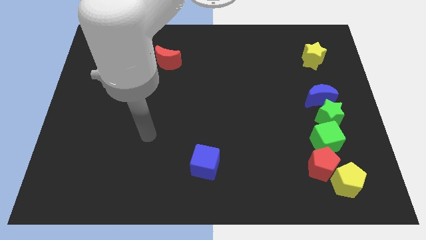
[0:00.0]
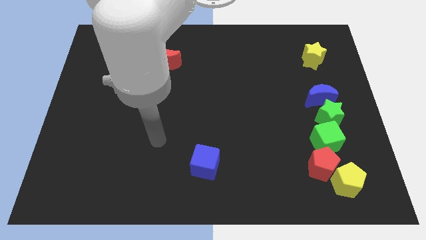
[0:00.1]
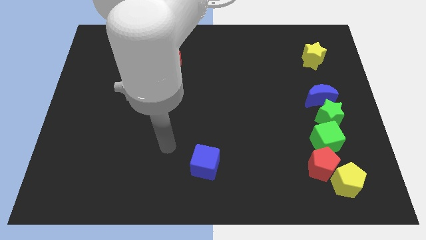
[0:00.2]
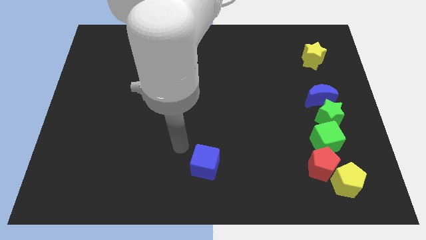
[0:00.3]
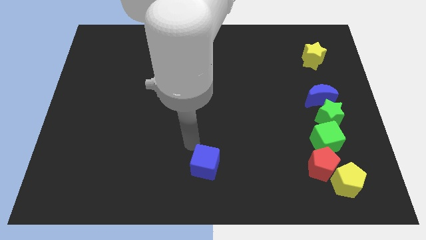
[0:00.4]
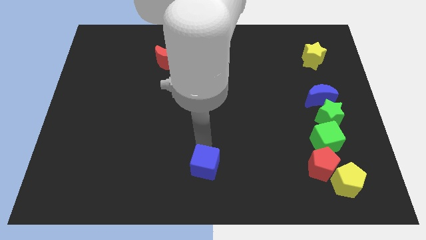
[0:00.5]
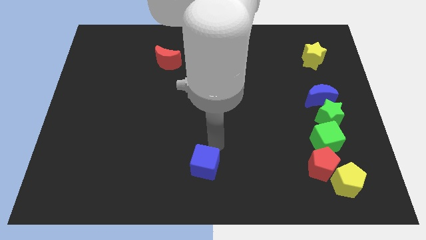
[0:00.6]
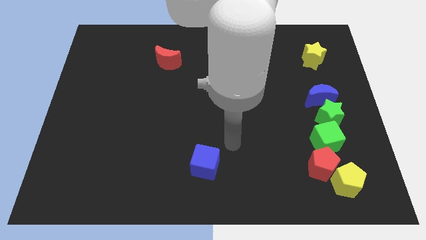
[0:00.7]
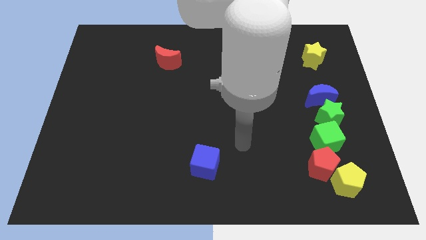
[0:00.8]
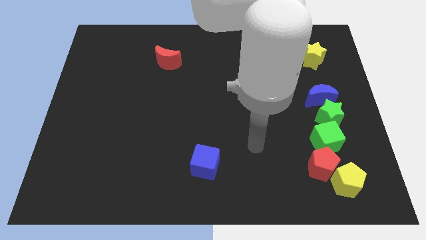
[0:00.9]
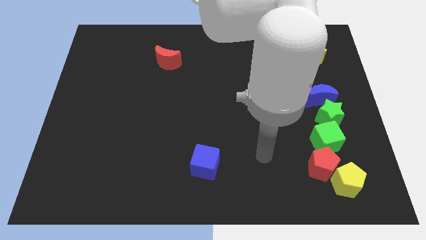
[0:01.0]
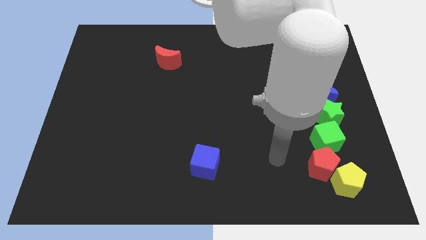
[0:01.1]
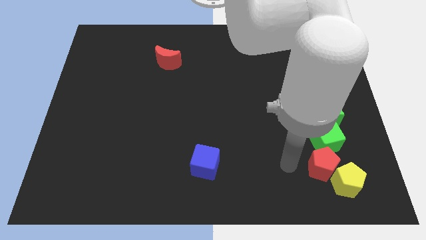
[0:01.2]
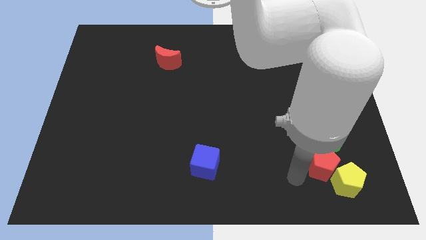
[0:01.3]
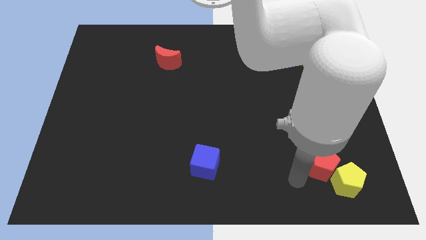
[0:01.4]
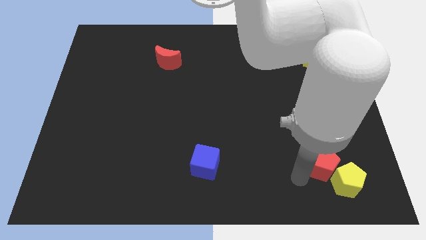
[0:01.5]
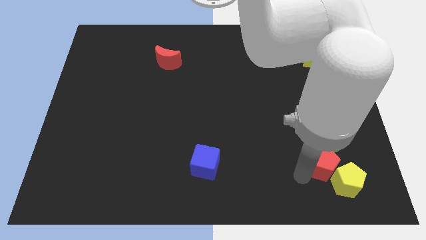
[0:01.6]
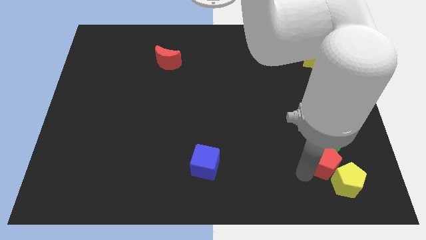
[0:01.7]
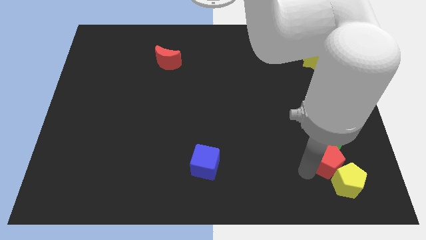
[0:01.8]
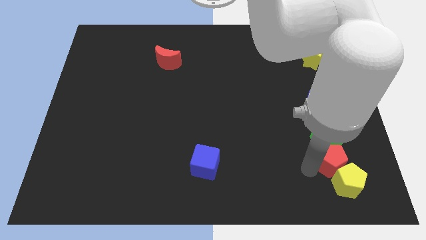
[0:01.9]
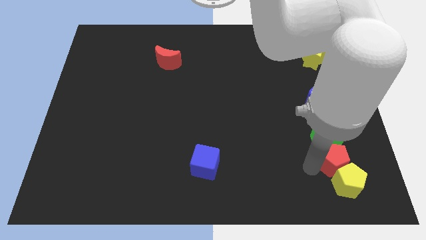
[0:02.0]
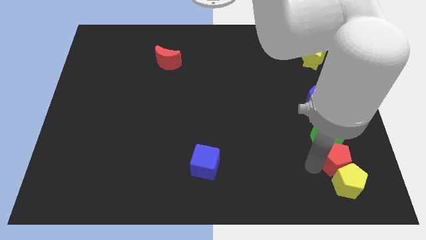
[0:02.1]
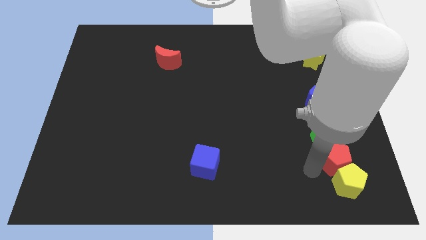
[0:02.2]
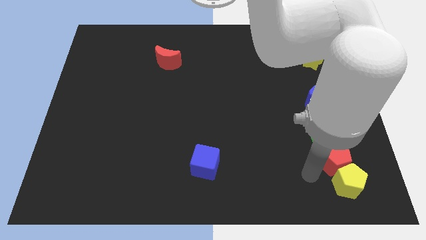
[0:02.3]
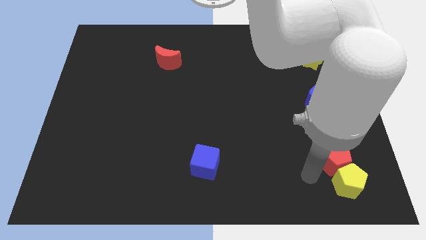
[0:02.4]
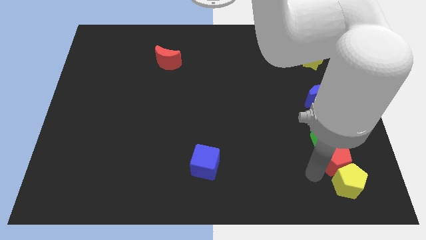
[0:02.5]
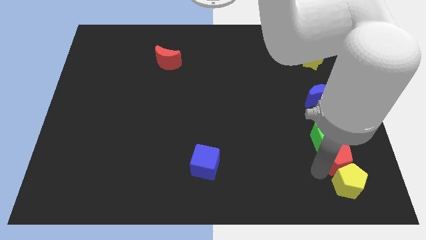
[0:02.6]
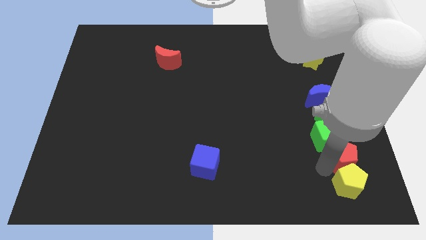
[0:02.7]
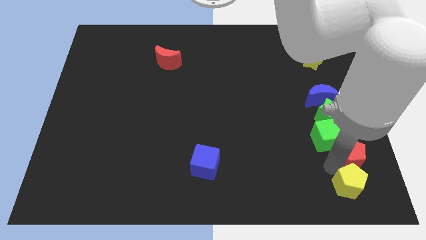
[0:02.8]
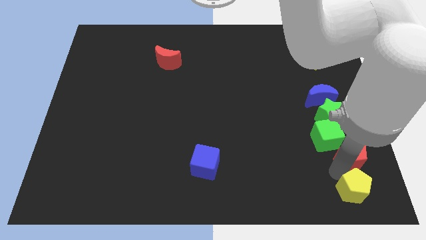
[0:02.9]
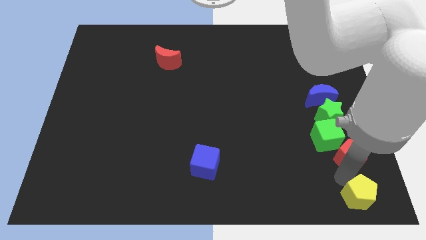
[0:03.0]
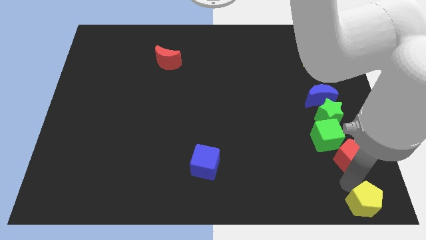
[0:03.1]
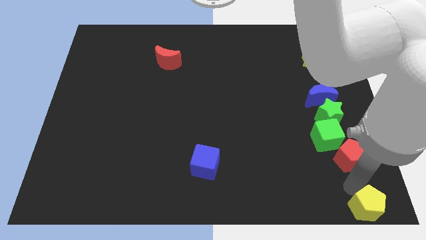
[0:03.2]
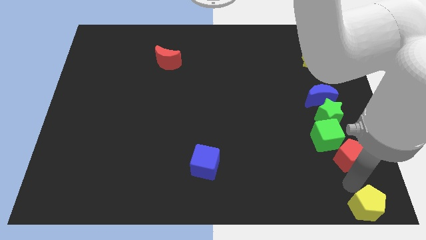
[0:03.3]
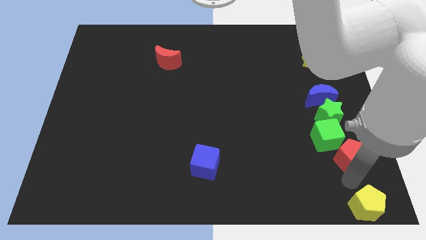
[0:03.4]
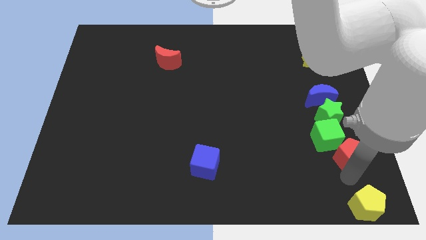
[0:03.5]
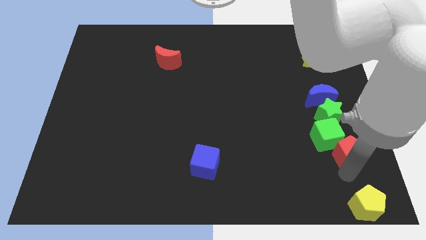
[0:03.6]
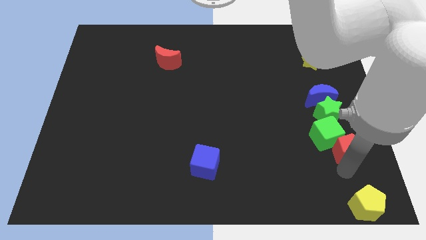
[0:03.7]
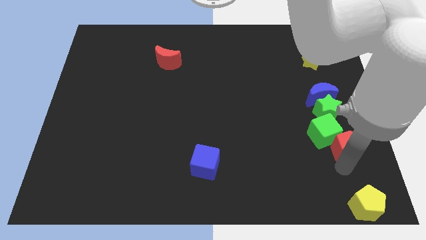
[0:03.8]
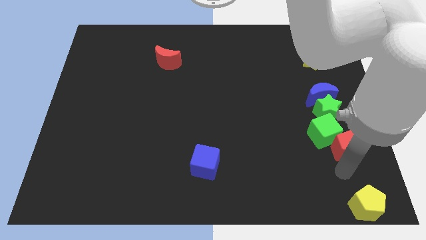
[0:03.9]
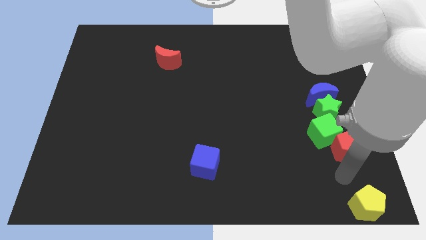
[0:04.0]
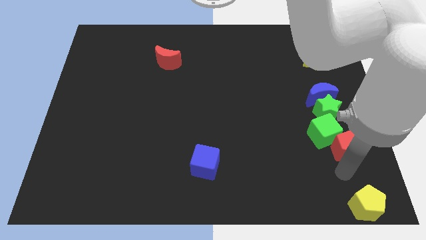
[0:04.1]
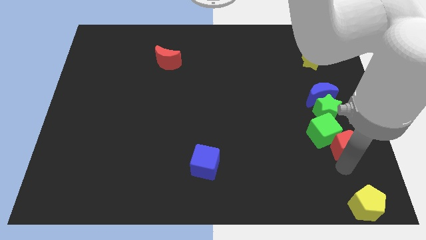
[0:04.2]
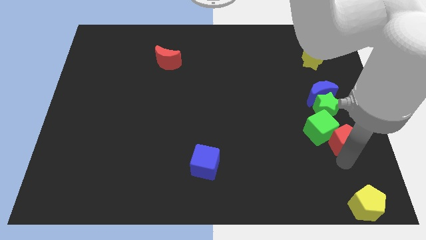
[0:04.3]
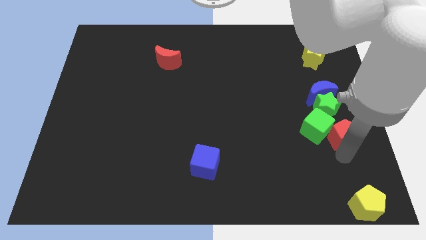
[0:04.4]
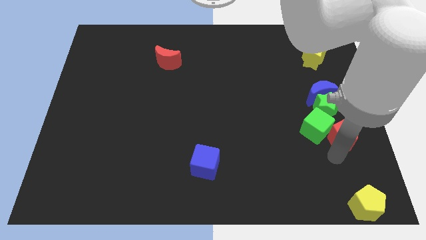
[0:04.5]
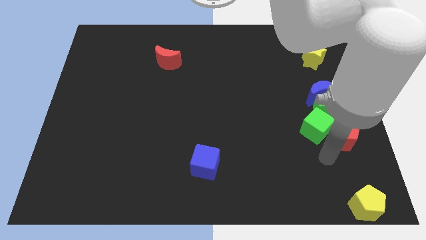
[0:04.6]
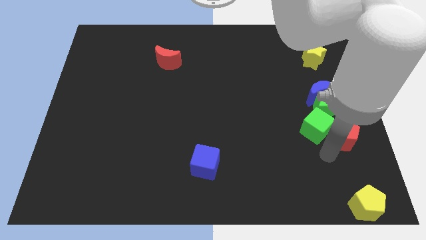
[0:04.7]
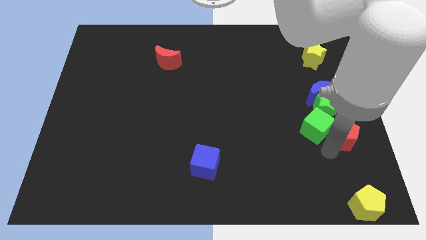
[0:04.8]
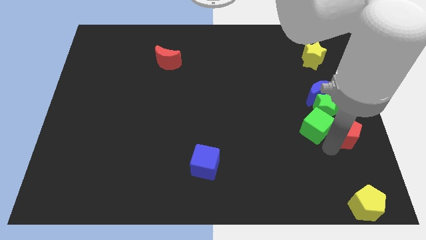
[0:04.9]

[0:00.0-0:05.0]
put the red pentagon to the center right

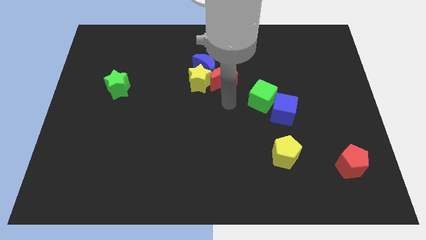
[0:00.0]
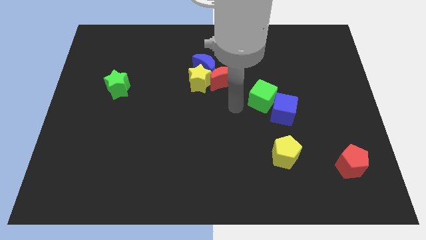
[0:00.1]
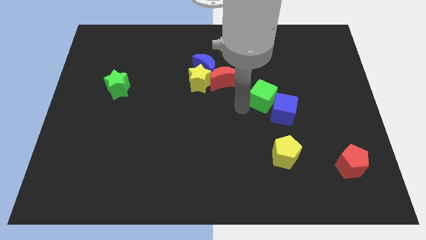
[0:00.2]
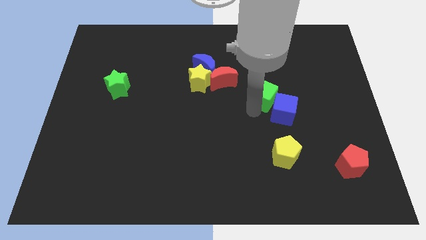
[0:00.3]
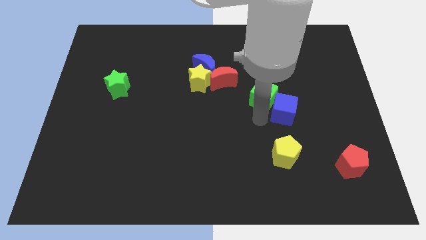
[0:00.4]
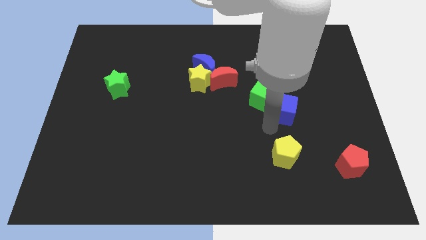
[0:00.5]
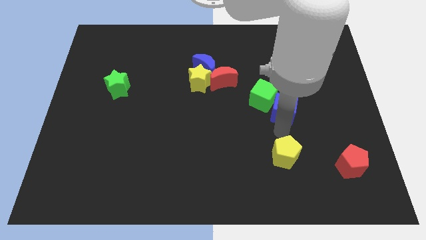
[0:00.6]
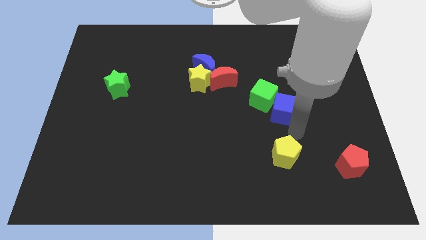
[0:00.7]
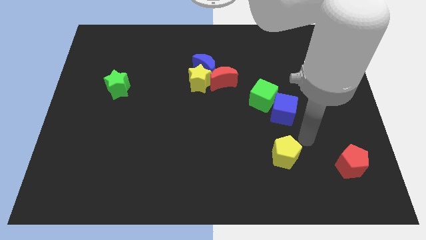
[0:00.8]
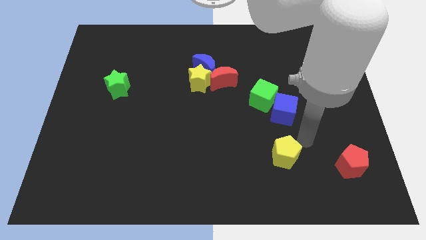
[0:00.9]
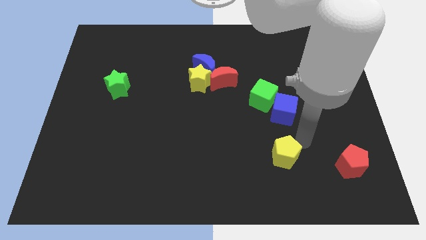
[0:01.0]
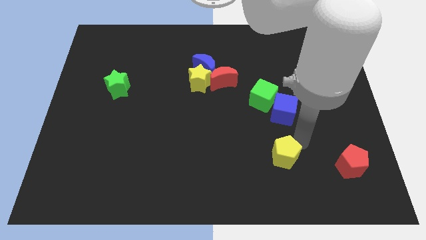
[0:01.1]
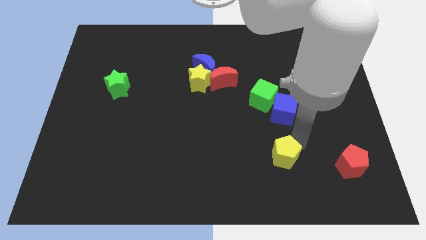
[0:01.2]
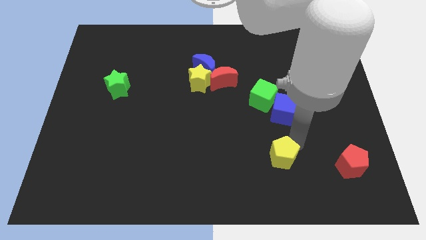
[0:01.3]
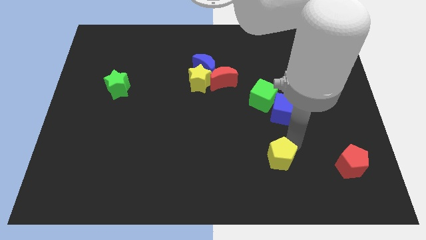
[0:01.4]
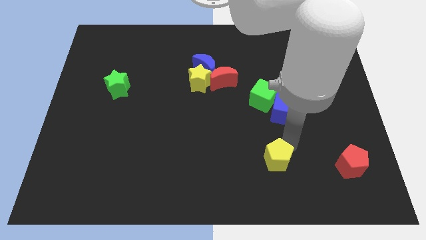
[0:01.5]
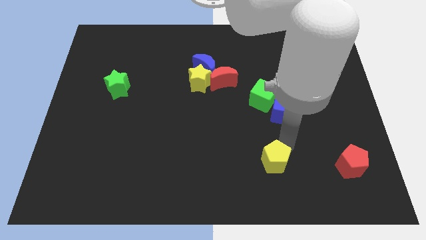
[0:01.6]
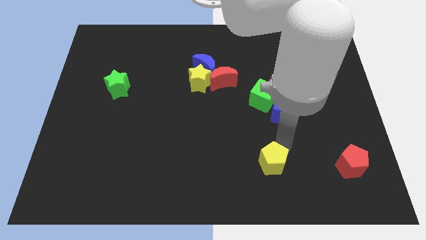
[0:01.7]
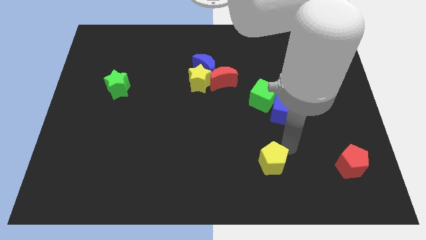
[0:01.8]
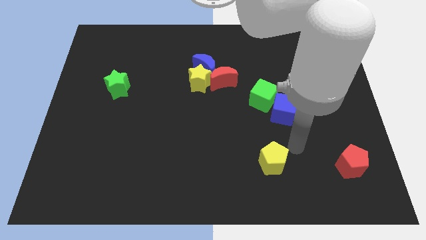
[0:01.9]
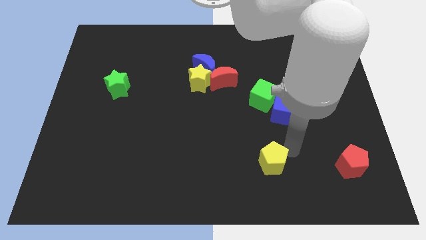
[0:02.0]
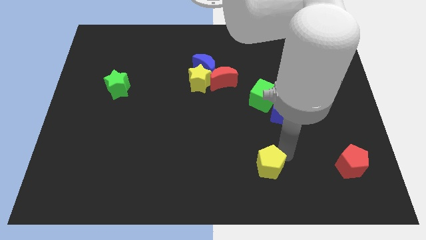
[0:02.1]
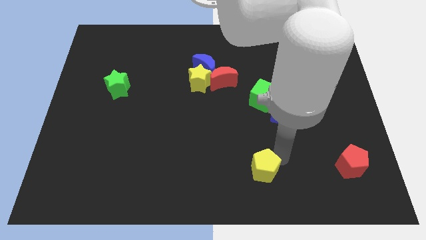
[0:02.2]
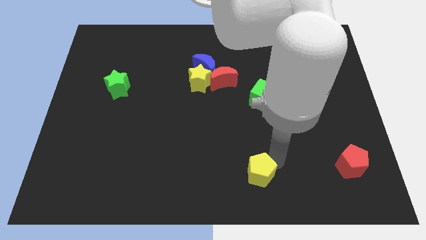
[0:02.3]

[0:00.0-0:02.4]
move the yellow pentagon to the bottom
